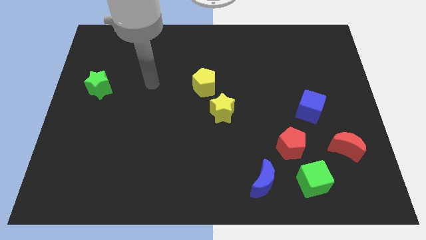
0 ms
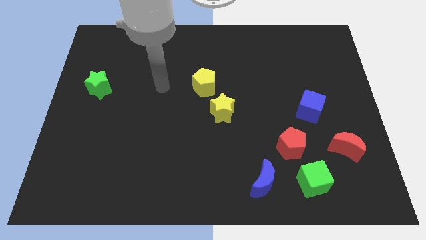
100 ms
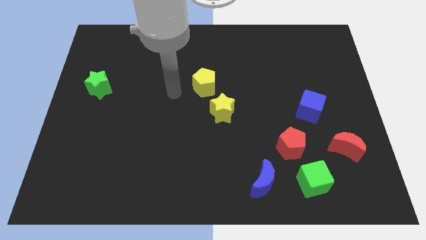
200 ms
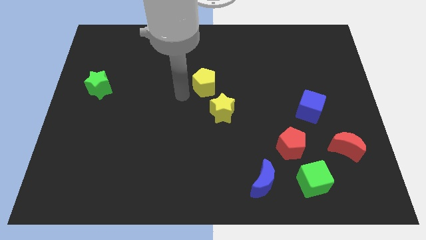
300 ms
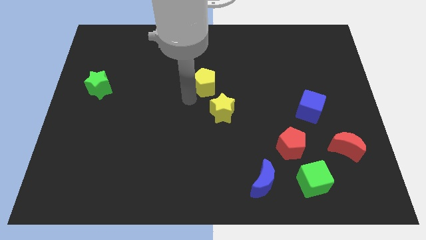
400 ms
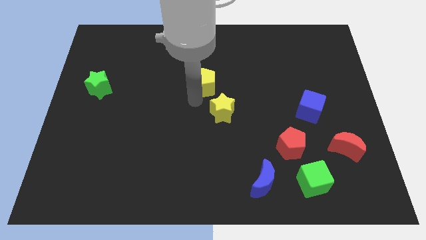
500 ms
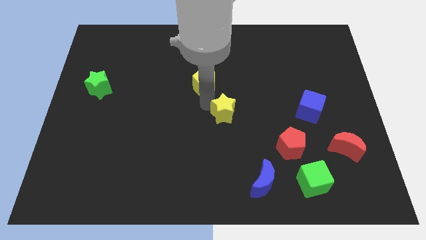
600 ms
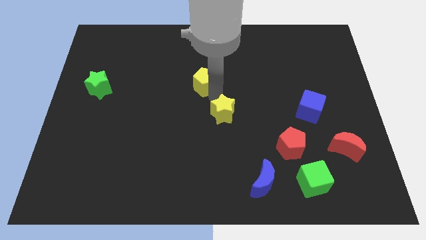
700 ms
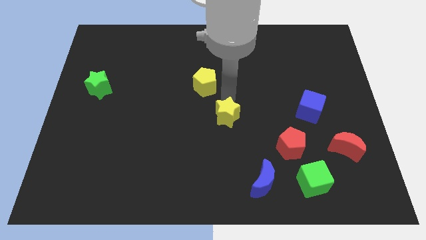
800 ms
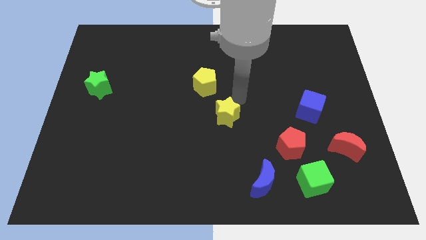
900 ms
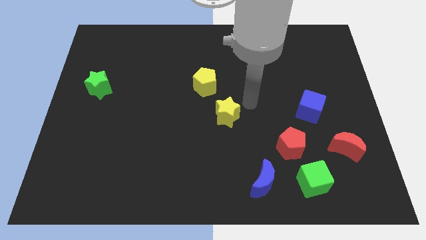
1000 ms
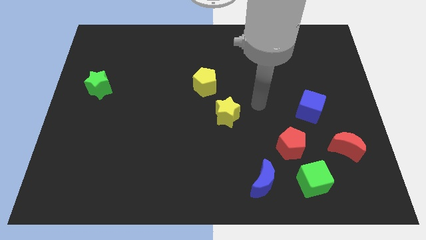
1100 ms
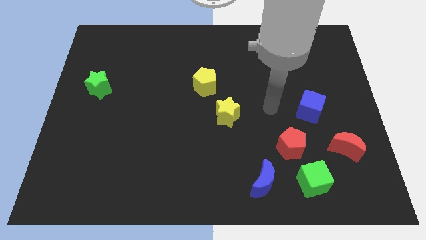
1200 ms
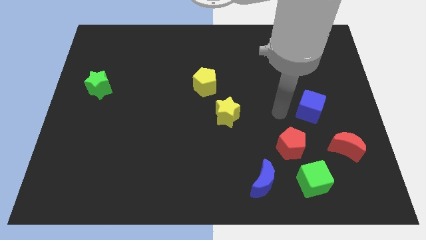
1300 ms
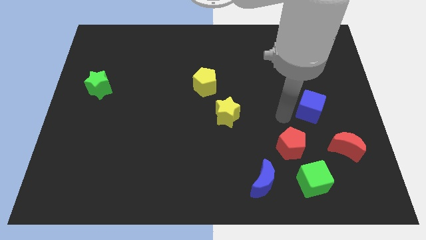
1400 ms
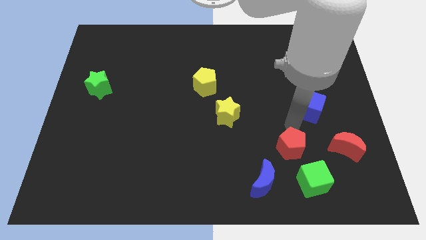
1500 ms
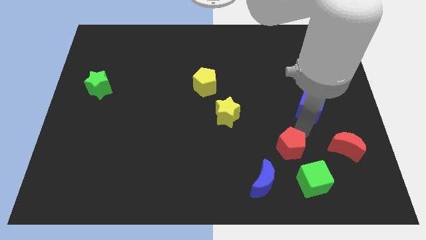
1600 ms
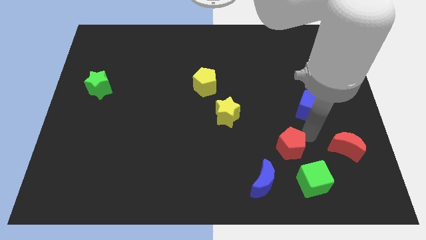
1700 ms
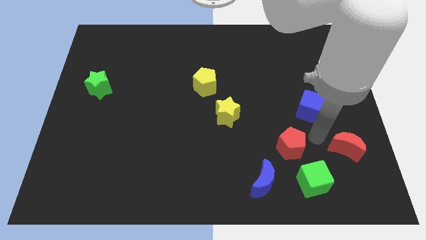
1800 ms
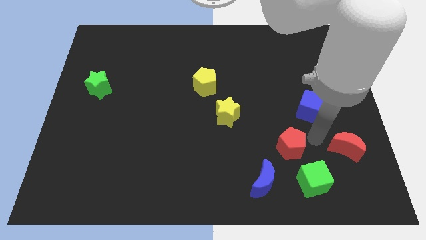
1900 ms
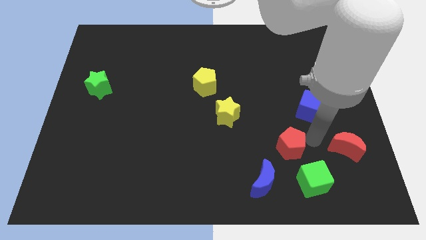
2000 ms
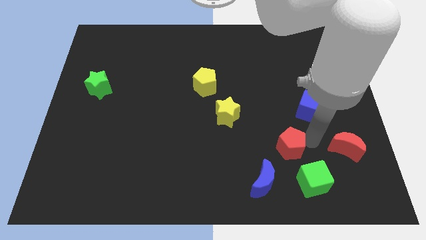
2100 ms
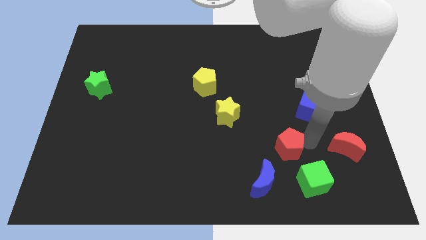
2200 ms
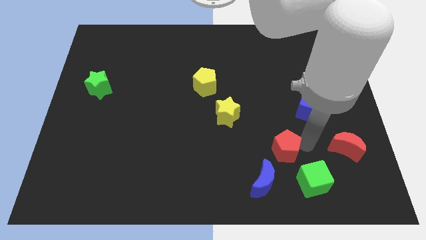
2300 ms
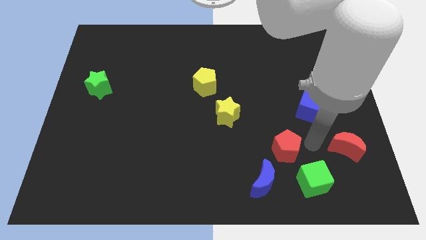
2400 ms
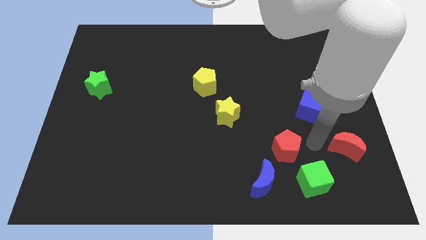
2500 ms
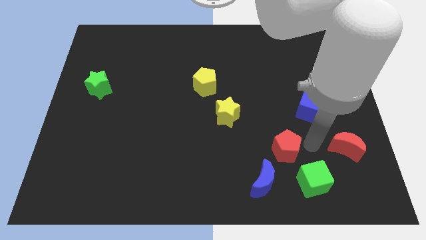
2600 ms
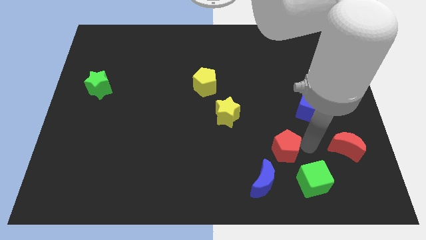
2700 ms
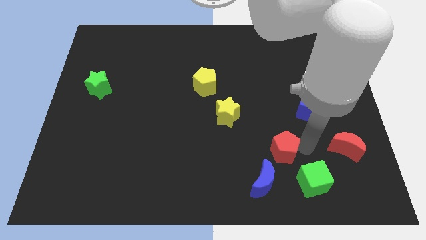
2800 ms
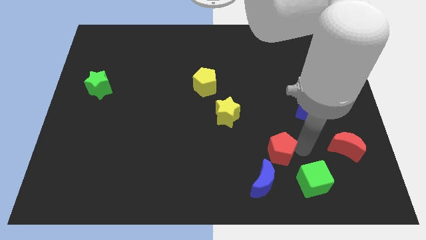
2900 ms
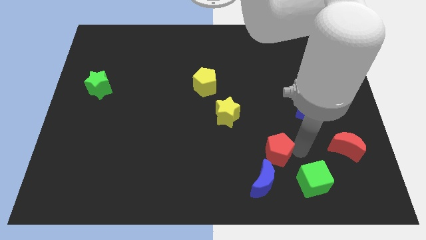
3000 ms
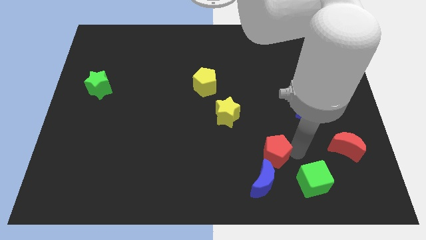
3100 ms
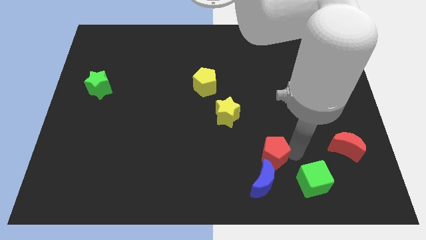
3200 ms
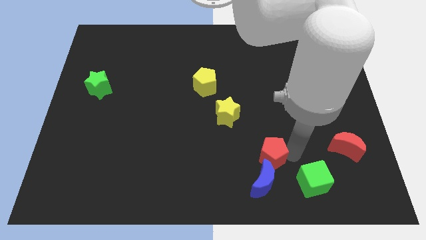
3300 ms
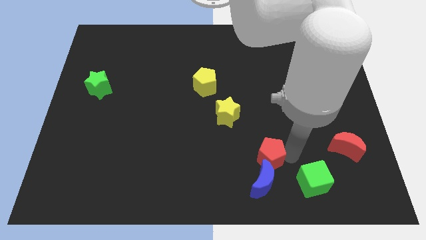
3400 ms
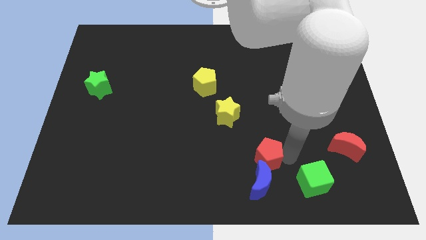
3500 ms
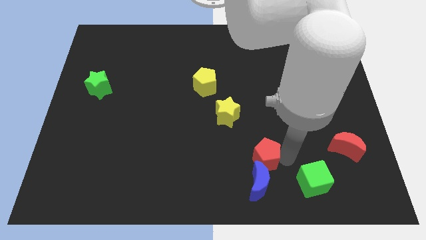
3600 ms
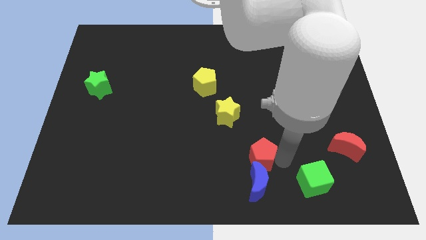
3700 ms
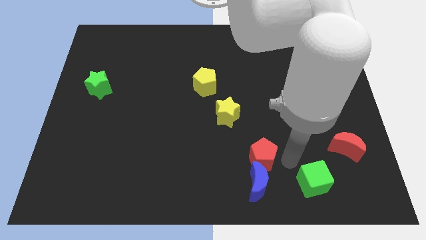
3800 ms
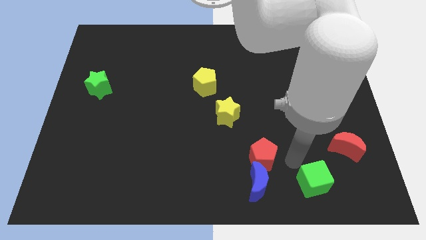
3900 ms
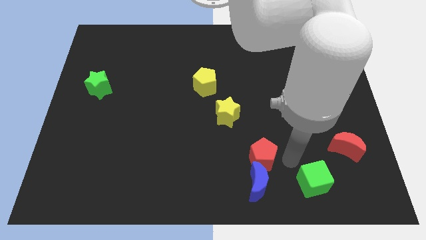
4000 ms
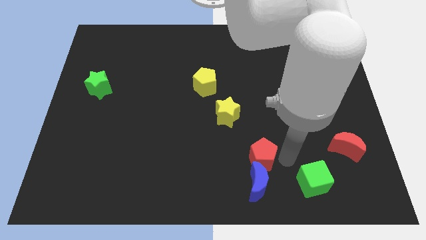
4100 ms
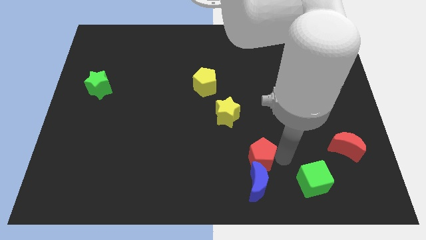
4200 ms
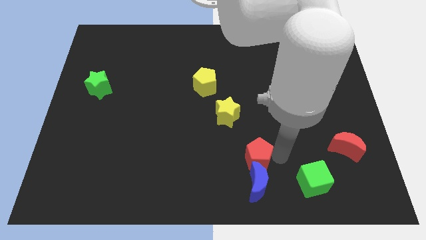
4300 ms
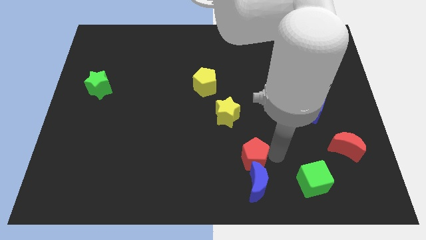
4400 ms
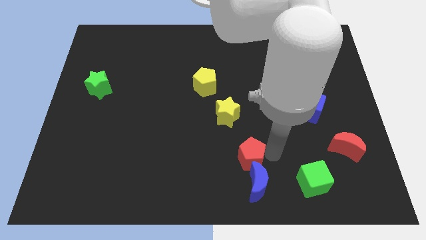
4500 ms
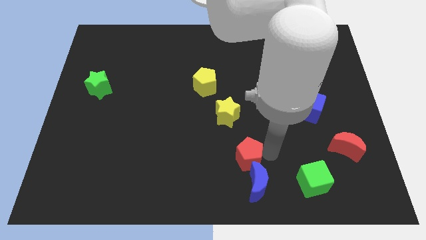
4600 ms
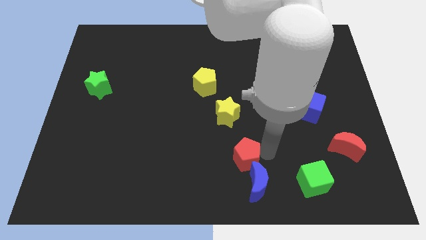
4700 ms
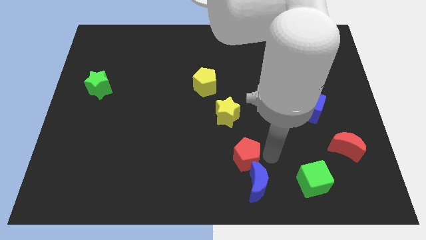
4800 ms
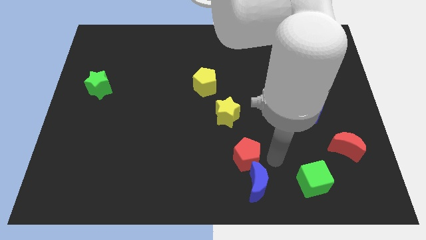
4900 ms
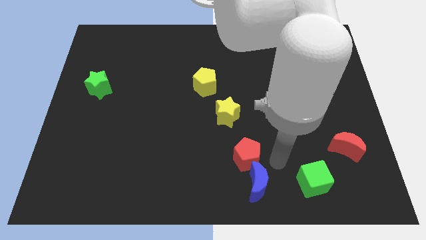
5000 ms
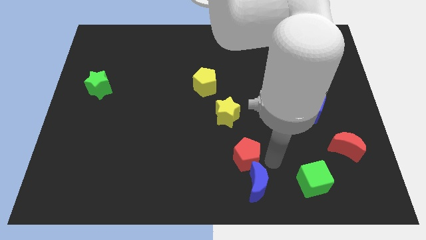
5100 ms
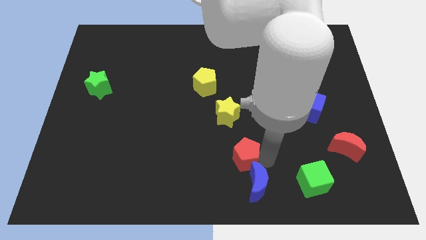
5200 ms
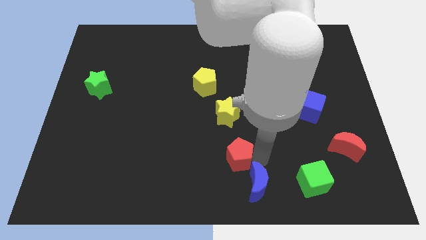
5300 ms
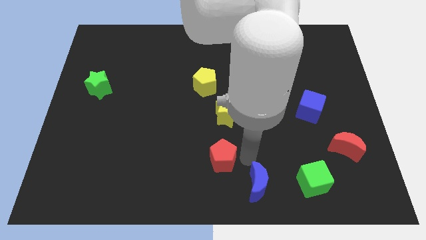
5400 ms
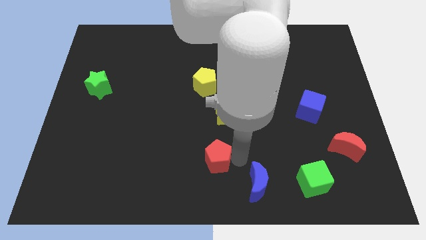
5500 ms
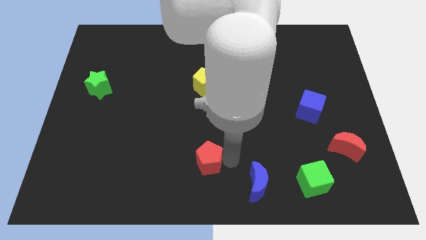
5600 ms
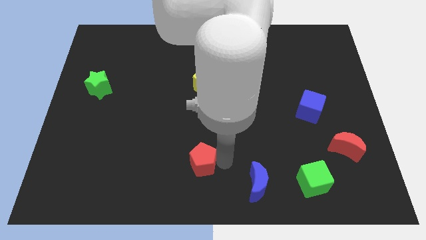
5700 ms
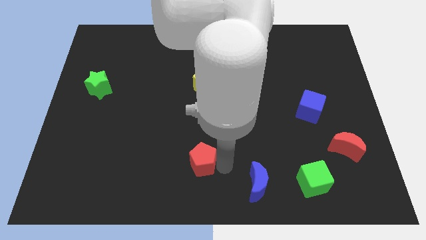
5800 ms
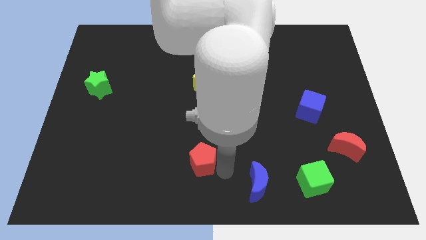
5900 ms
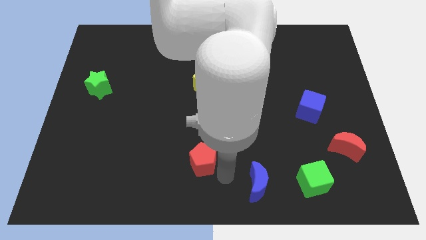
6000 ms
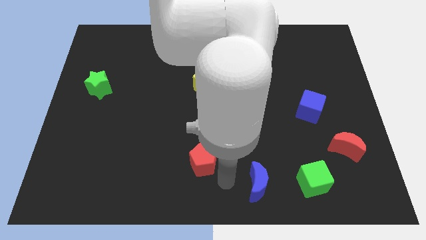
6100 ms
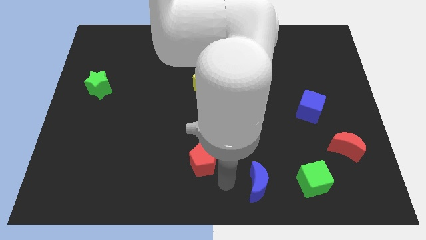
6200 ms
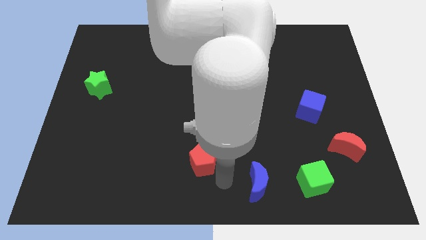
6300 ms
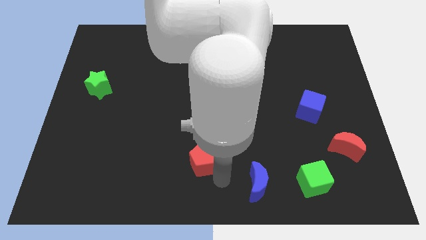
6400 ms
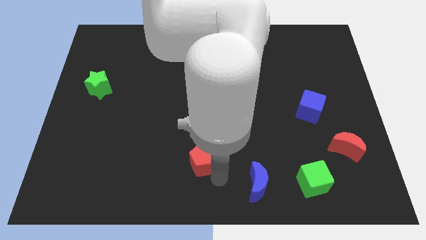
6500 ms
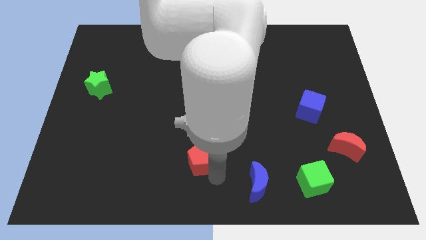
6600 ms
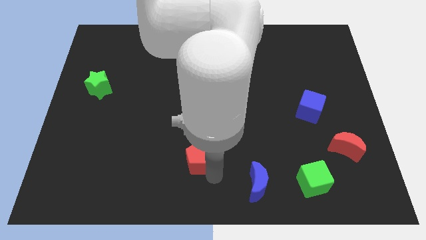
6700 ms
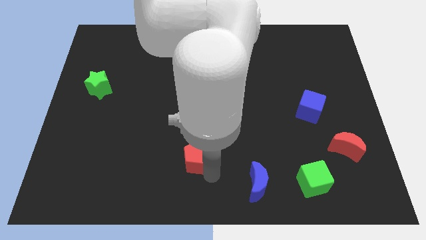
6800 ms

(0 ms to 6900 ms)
move the red pentagon to the left

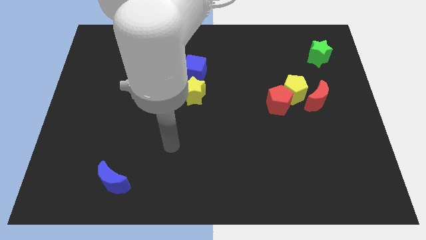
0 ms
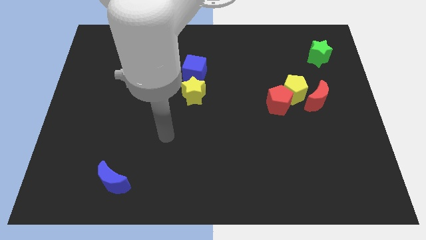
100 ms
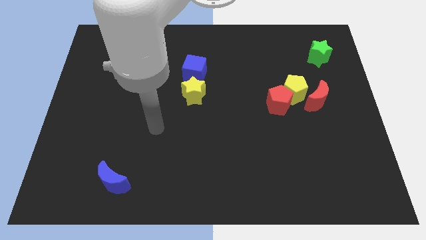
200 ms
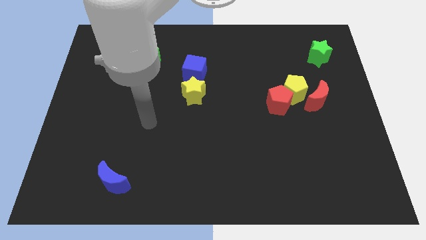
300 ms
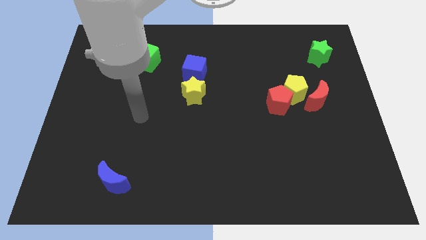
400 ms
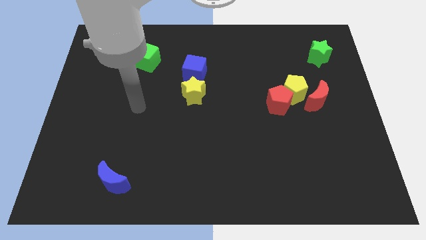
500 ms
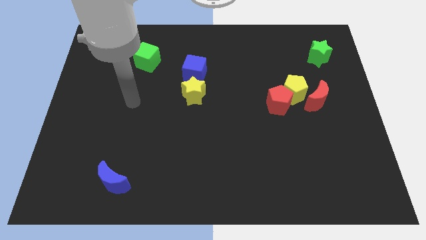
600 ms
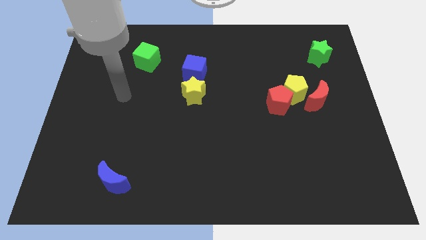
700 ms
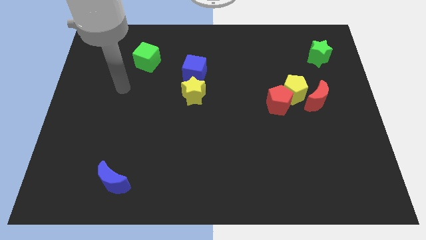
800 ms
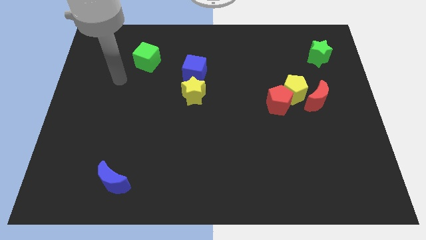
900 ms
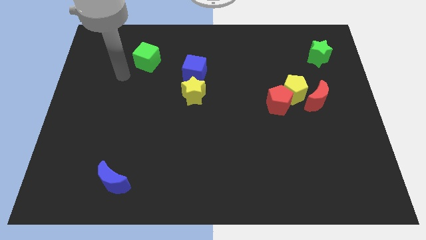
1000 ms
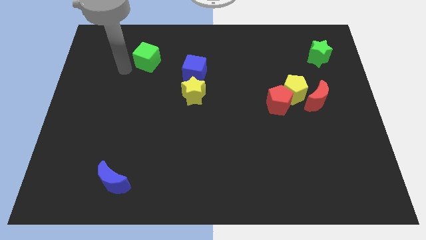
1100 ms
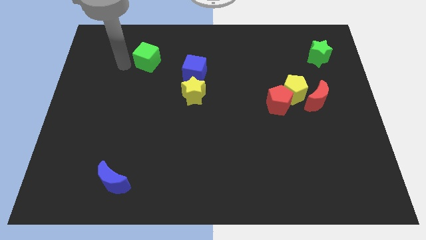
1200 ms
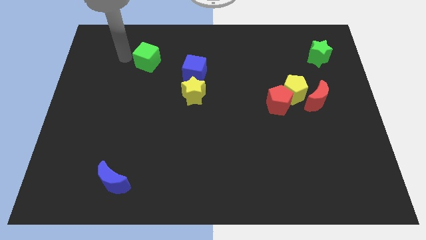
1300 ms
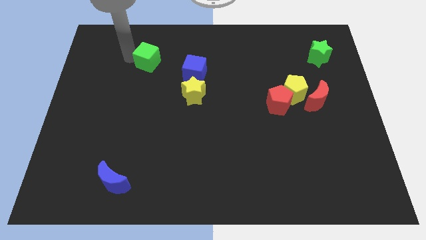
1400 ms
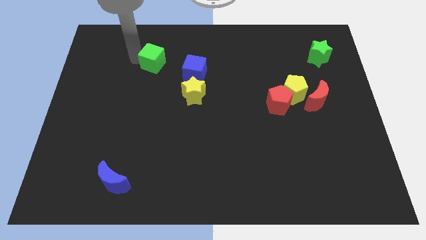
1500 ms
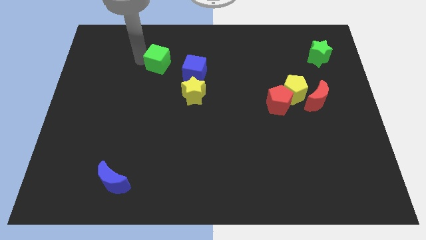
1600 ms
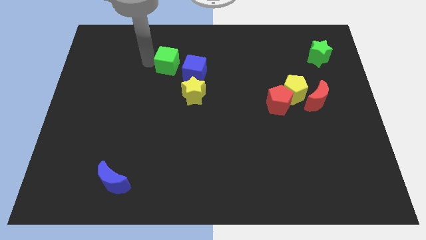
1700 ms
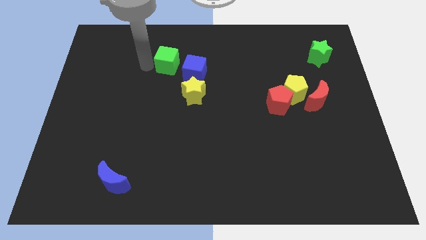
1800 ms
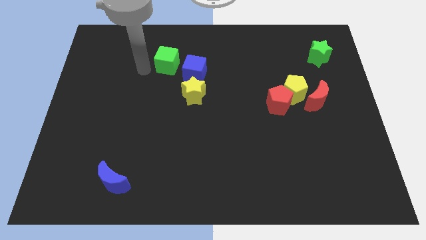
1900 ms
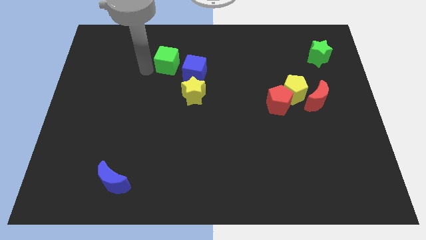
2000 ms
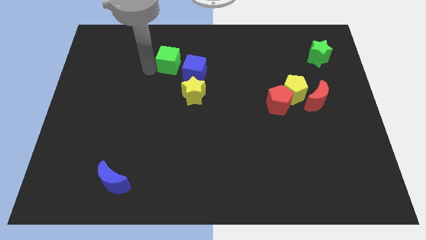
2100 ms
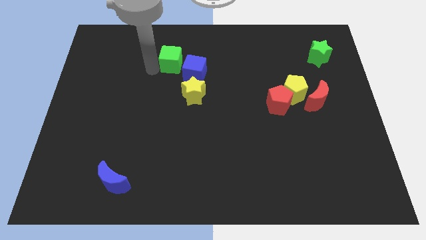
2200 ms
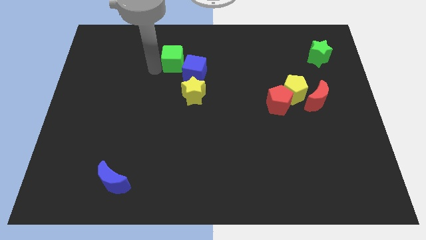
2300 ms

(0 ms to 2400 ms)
push the green cube to the right a little
